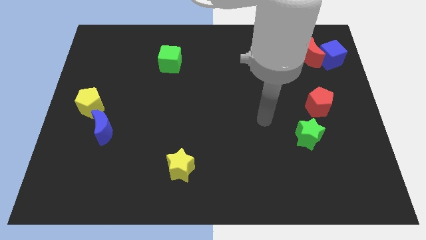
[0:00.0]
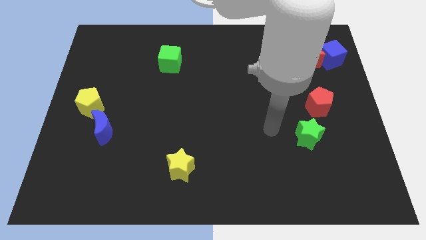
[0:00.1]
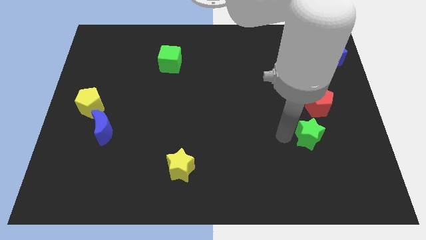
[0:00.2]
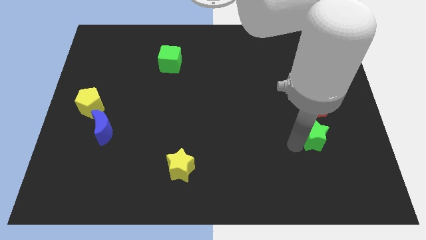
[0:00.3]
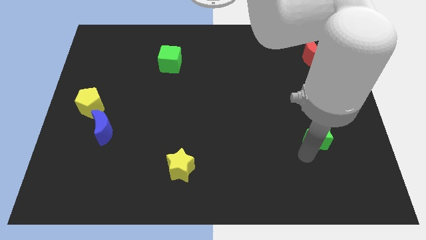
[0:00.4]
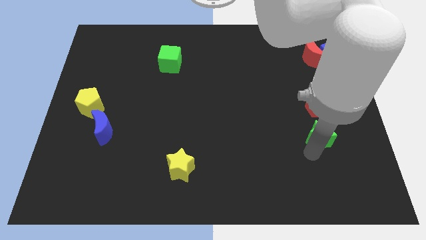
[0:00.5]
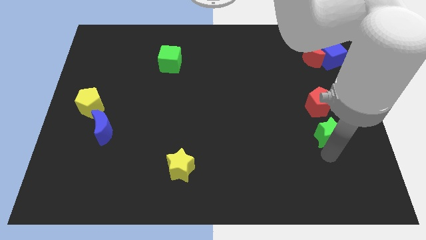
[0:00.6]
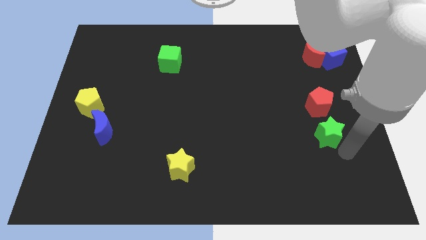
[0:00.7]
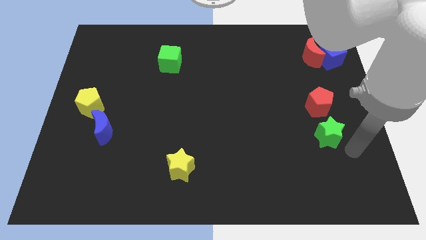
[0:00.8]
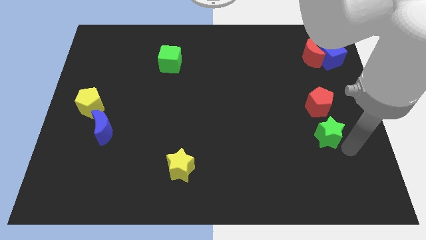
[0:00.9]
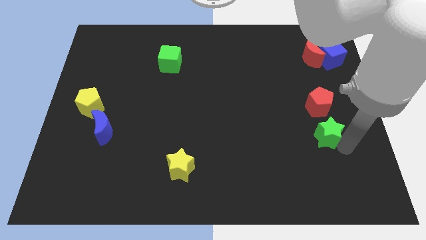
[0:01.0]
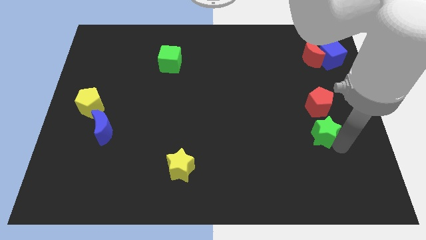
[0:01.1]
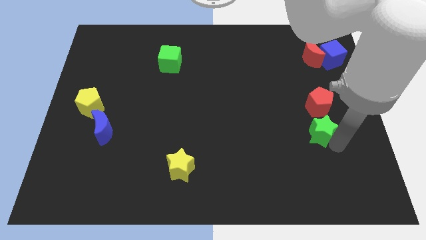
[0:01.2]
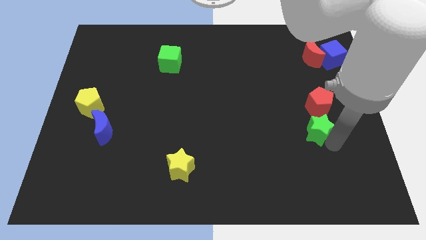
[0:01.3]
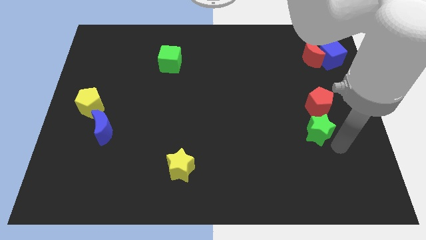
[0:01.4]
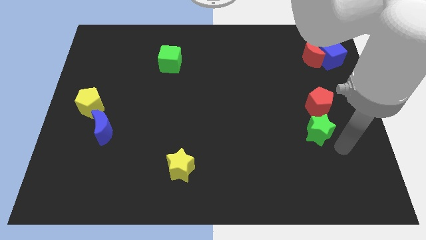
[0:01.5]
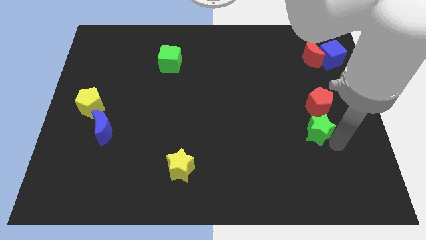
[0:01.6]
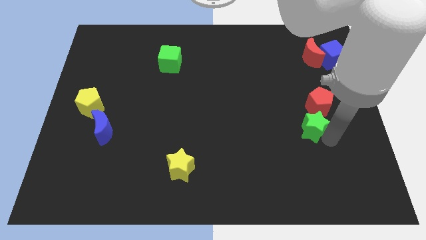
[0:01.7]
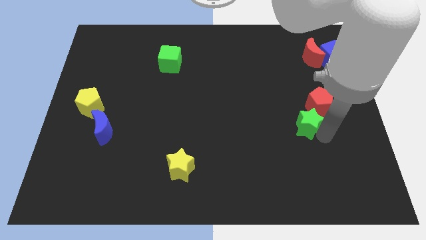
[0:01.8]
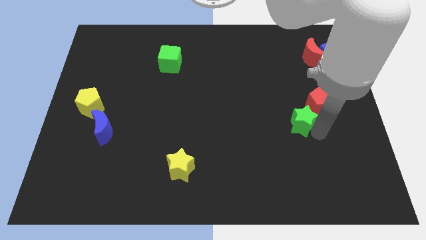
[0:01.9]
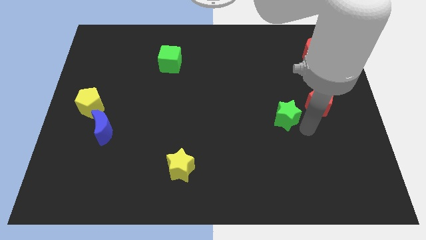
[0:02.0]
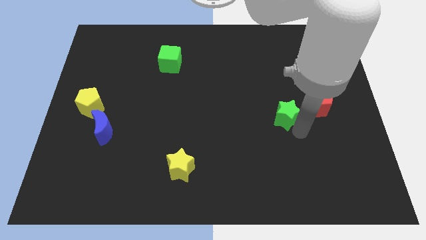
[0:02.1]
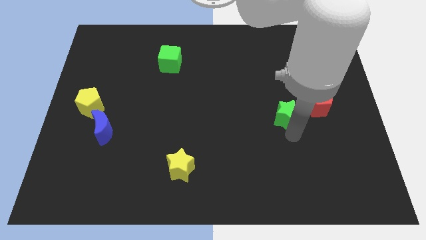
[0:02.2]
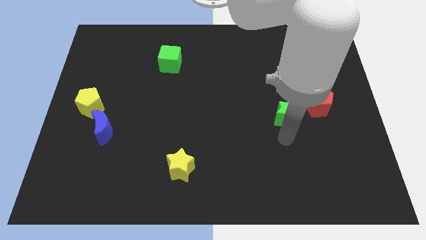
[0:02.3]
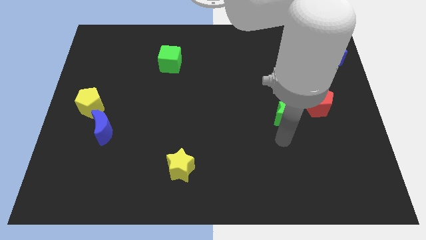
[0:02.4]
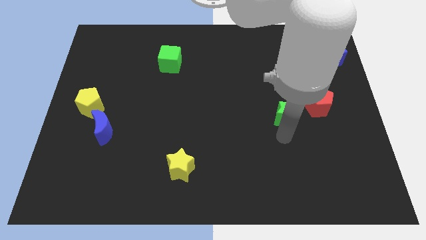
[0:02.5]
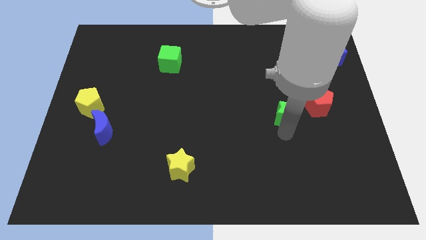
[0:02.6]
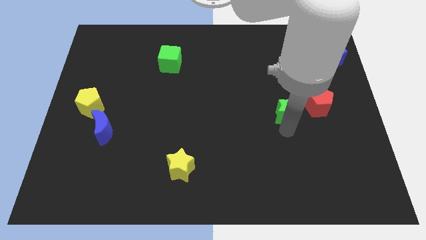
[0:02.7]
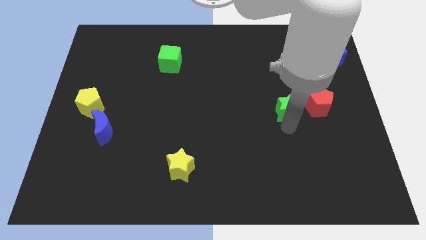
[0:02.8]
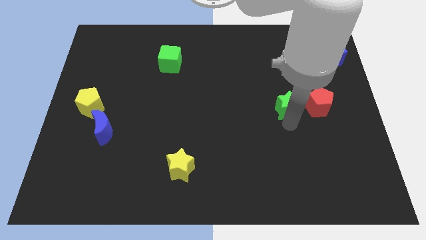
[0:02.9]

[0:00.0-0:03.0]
slightly push the green star up

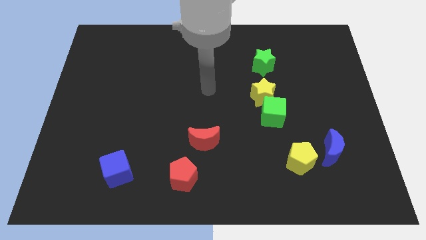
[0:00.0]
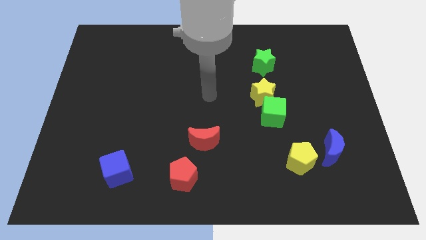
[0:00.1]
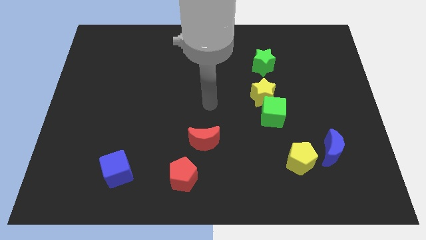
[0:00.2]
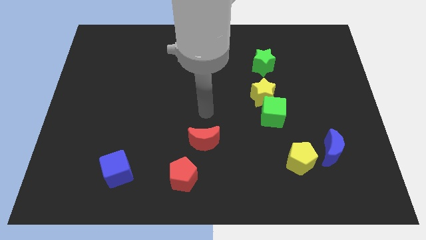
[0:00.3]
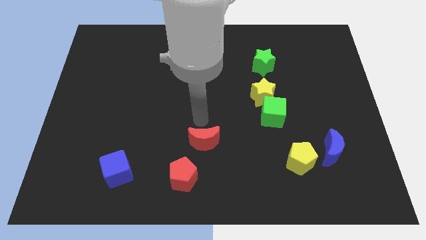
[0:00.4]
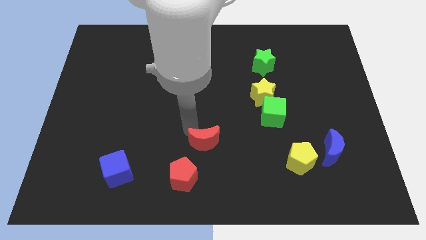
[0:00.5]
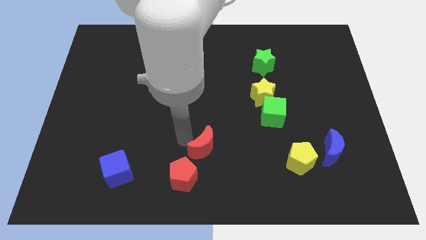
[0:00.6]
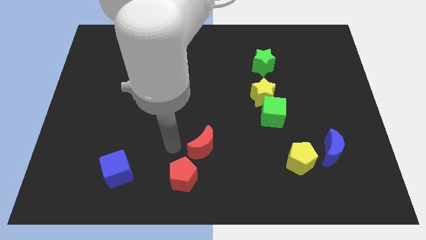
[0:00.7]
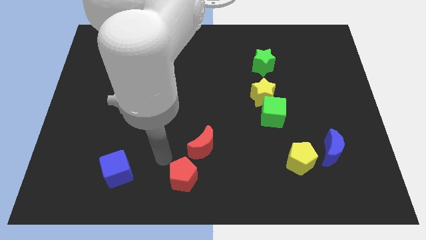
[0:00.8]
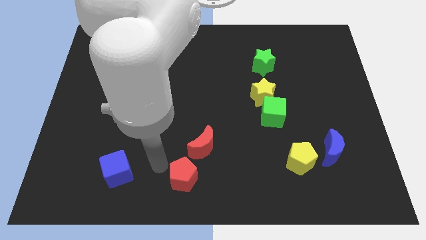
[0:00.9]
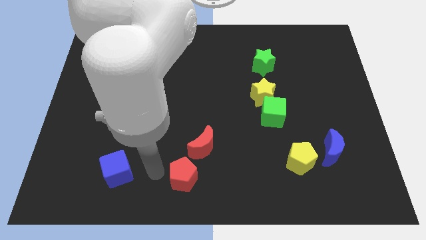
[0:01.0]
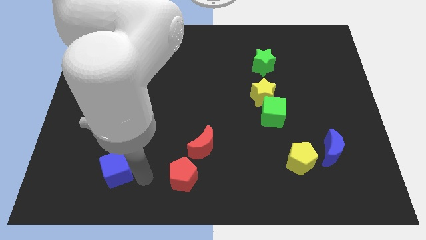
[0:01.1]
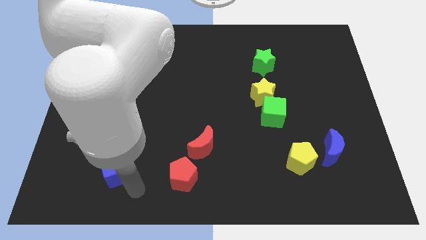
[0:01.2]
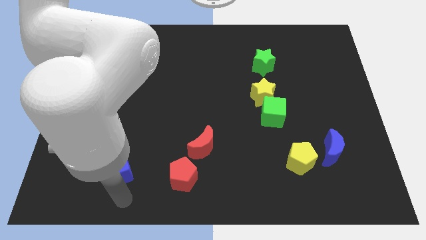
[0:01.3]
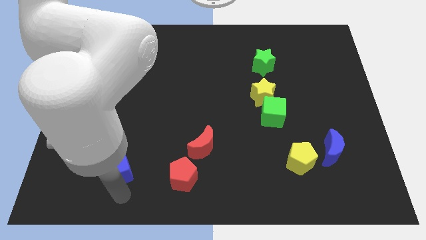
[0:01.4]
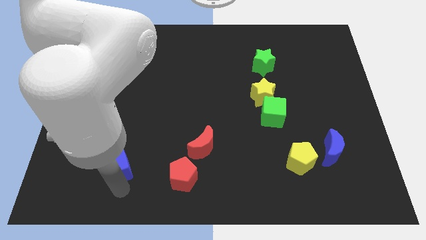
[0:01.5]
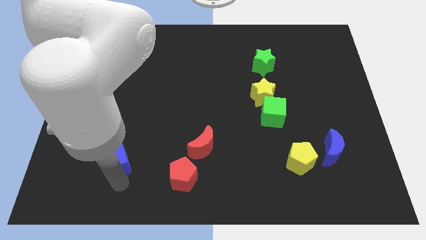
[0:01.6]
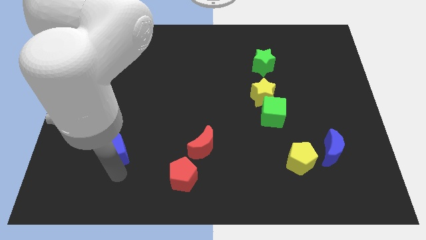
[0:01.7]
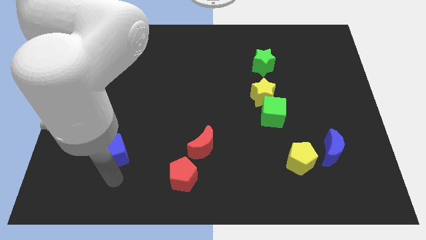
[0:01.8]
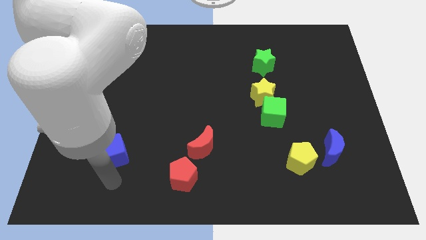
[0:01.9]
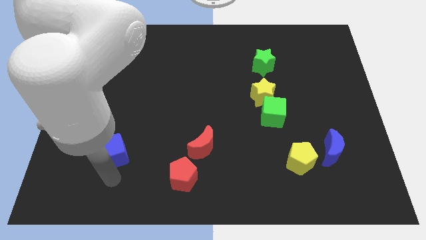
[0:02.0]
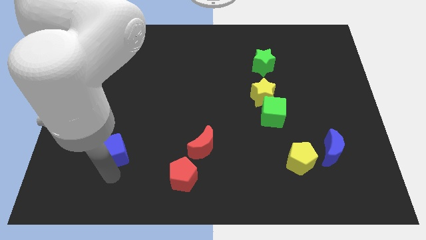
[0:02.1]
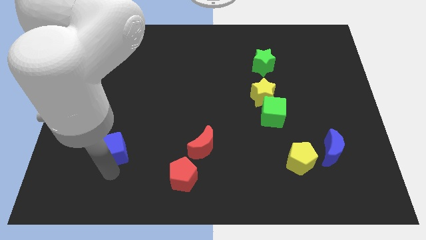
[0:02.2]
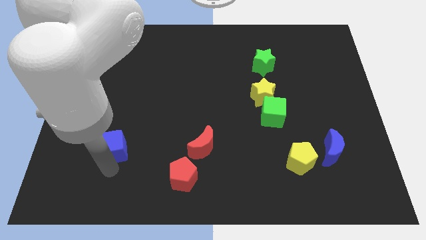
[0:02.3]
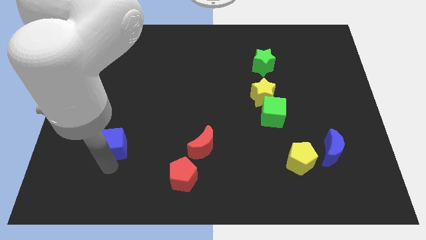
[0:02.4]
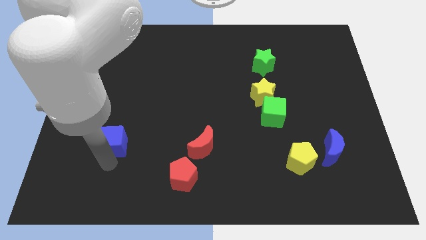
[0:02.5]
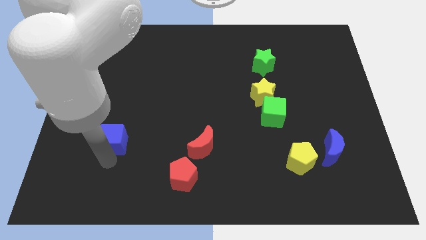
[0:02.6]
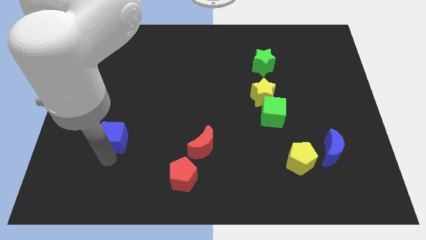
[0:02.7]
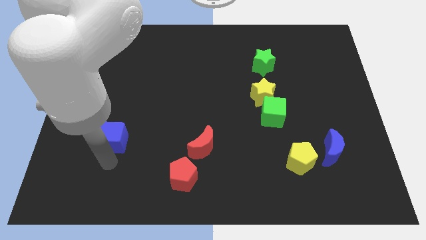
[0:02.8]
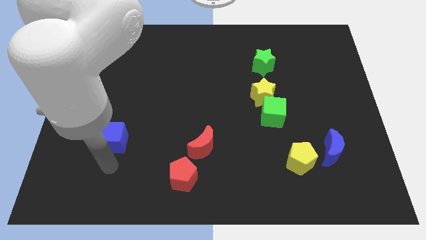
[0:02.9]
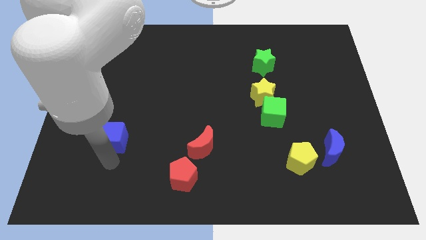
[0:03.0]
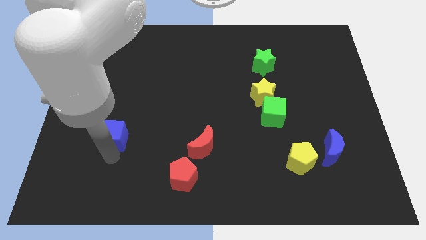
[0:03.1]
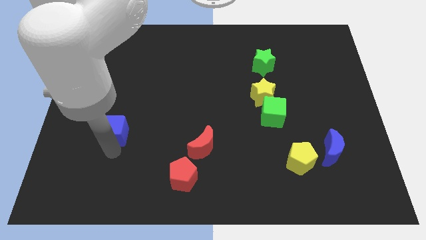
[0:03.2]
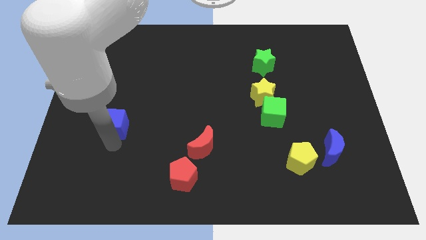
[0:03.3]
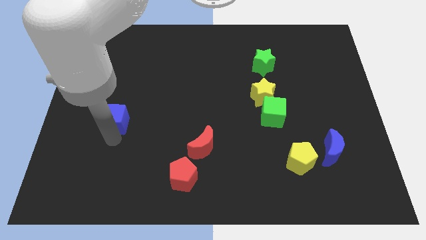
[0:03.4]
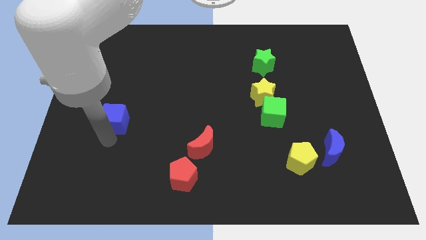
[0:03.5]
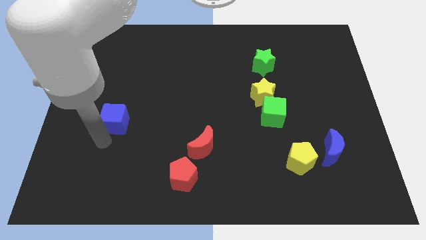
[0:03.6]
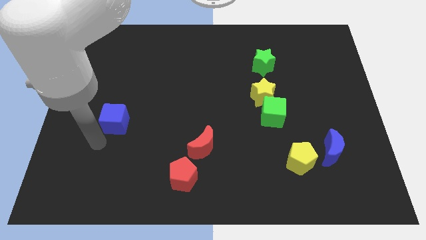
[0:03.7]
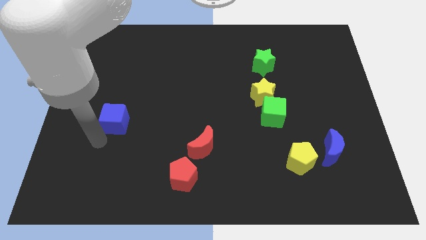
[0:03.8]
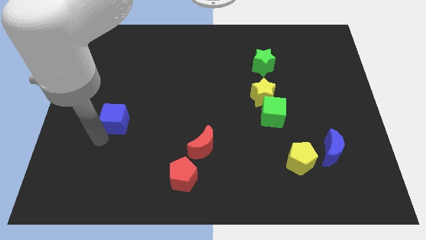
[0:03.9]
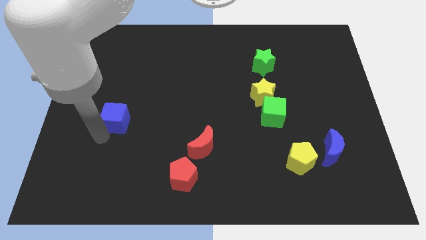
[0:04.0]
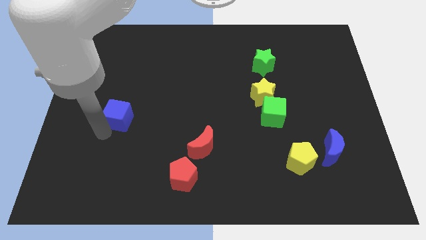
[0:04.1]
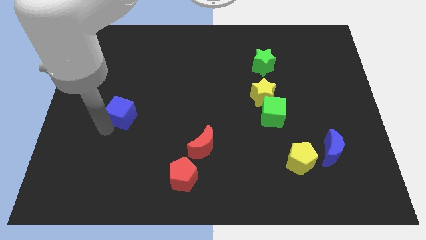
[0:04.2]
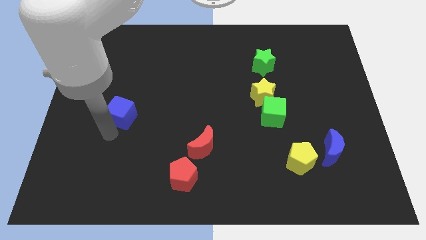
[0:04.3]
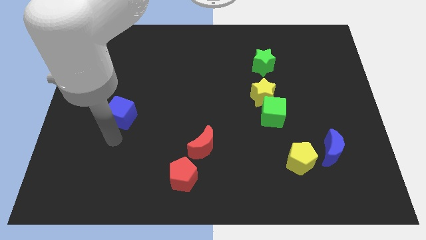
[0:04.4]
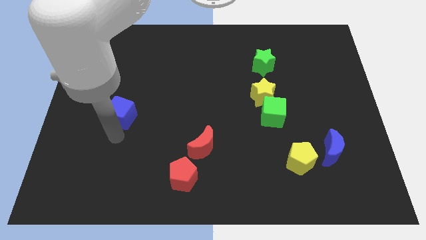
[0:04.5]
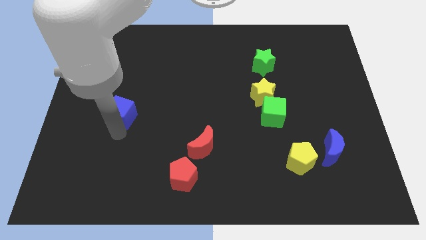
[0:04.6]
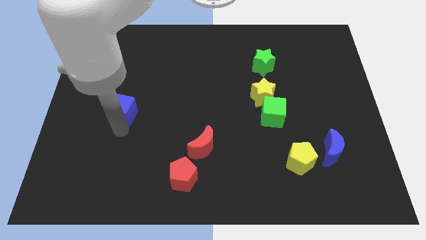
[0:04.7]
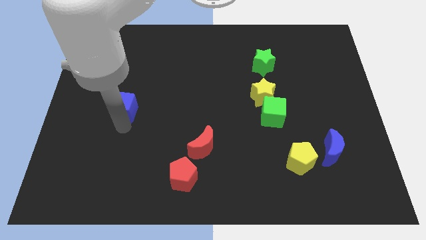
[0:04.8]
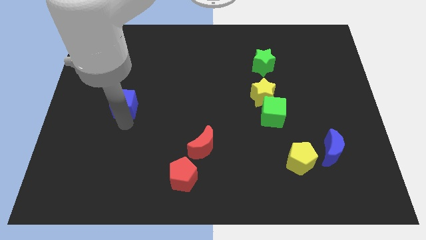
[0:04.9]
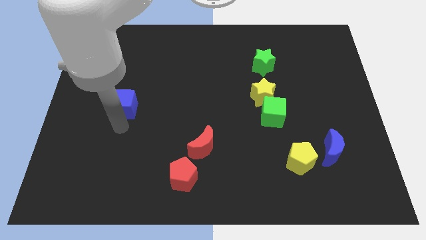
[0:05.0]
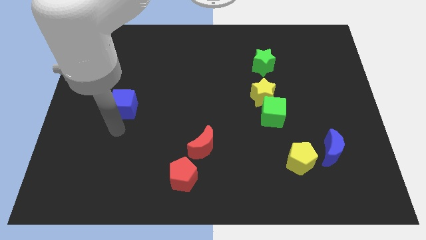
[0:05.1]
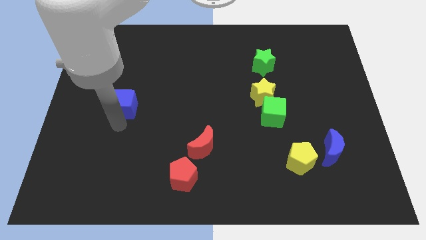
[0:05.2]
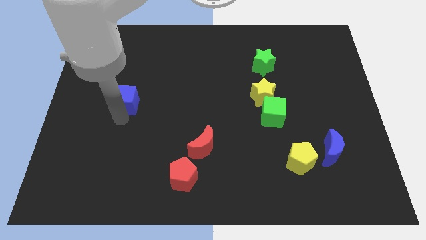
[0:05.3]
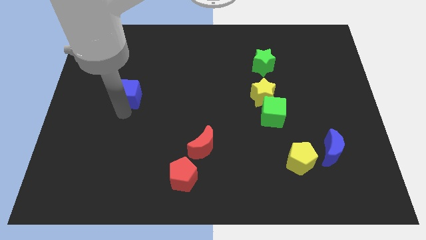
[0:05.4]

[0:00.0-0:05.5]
move the blue cube upwards
